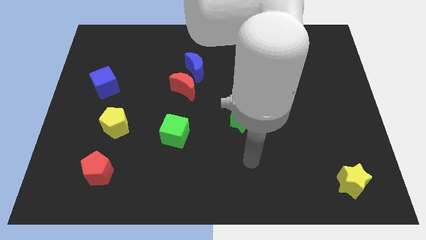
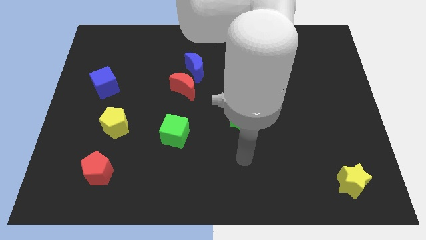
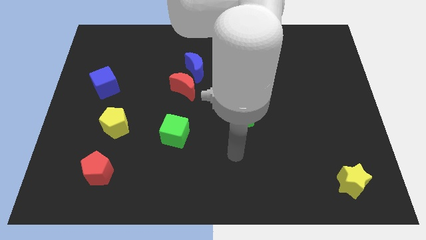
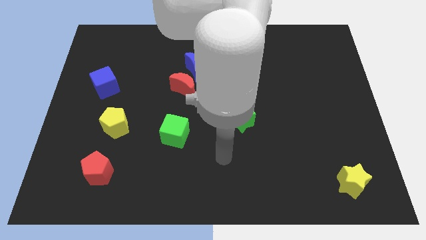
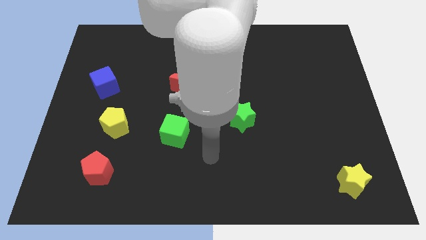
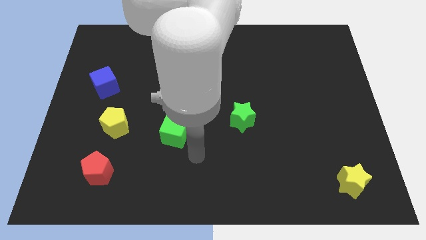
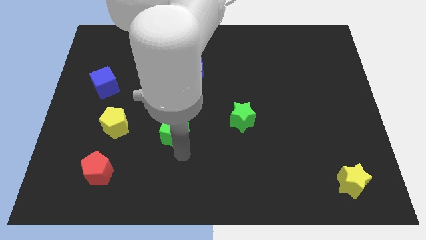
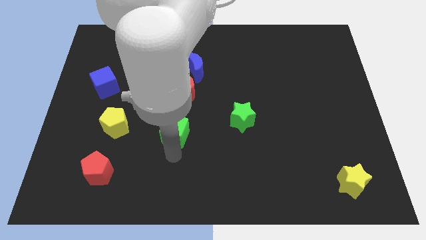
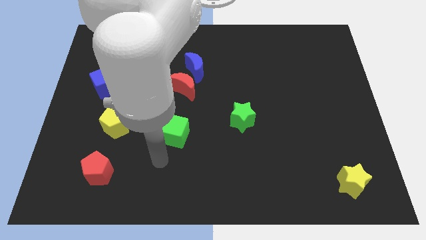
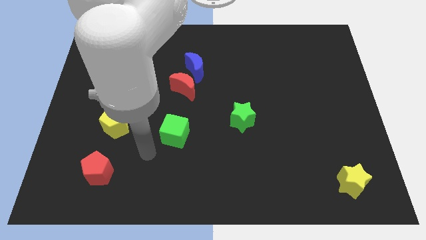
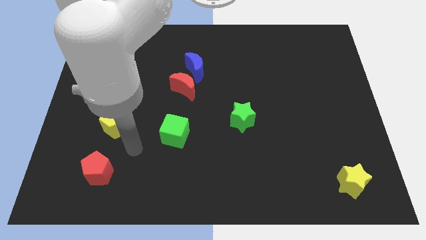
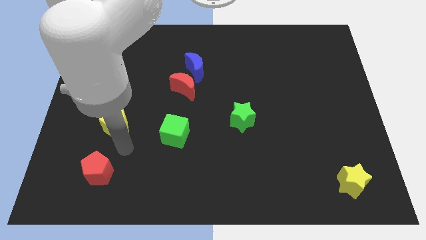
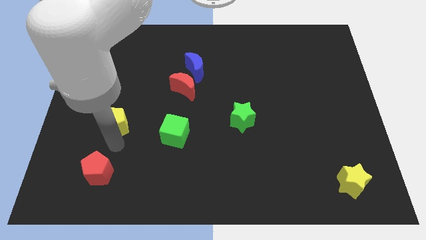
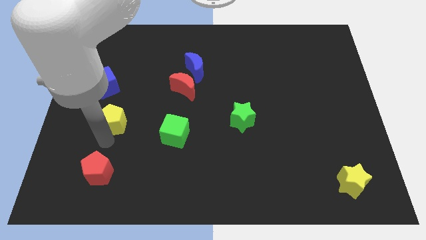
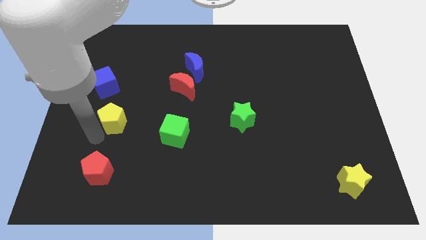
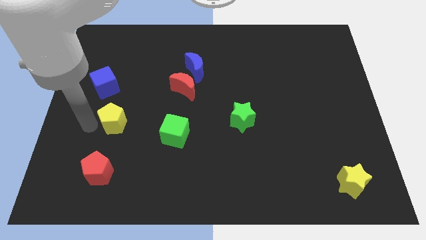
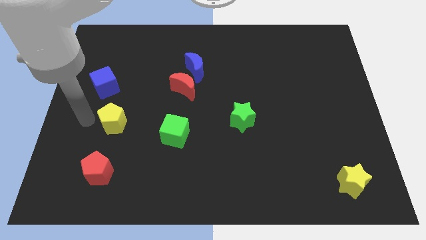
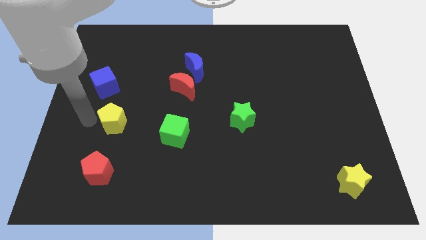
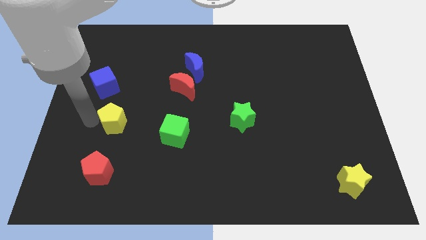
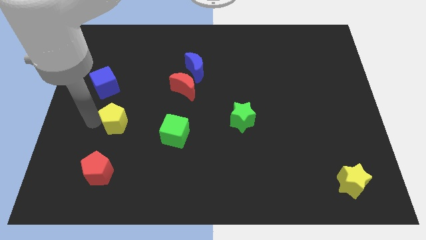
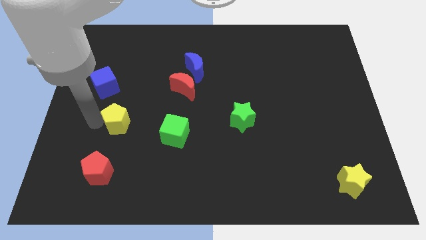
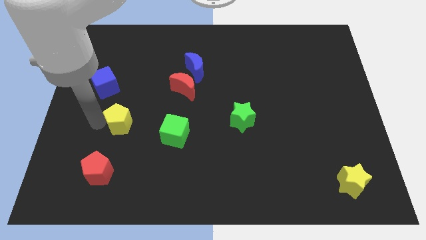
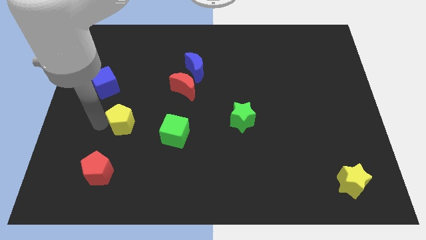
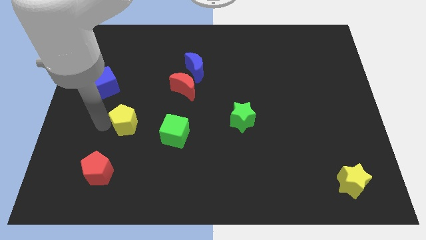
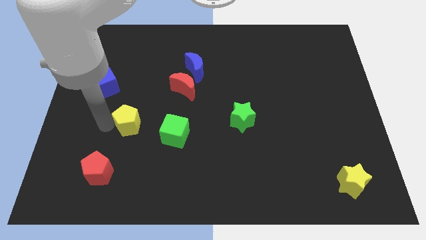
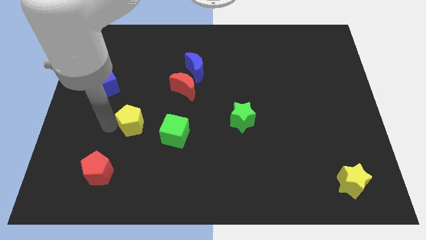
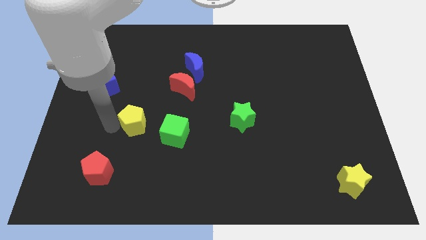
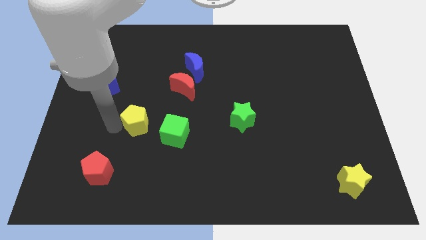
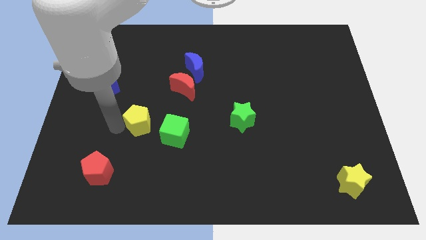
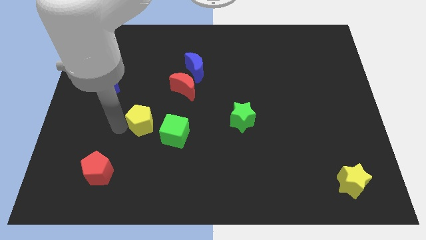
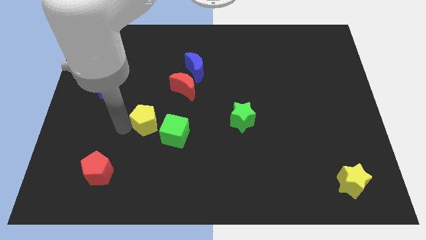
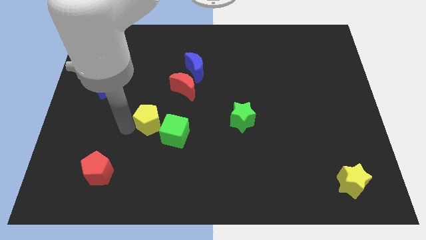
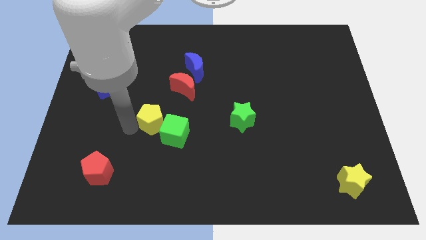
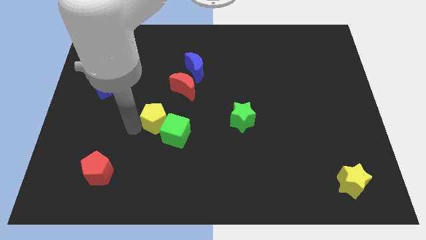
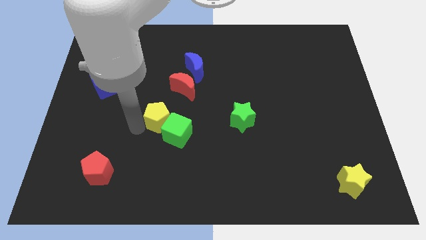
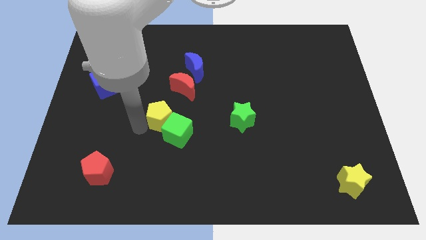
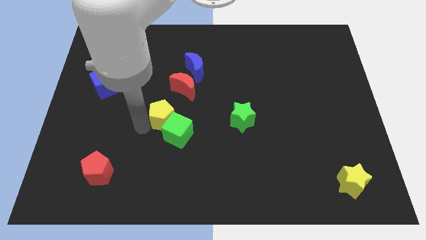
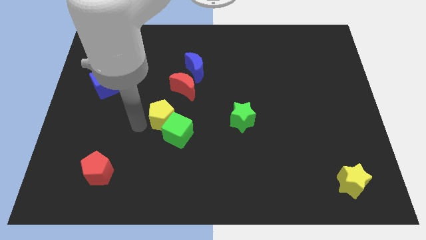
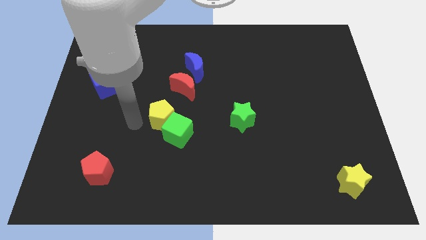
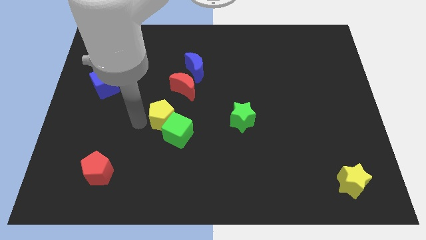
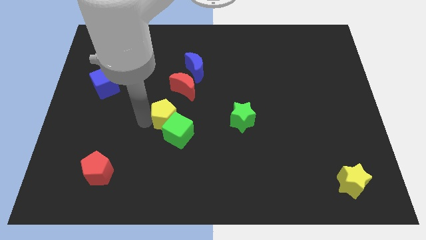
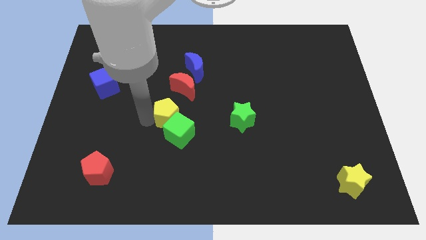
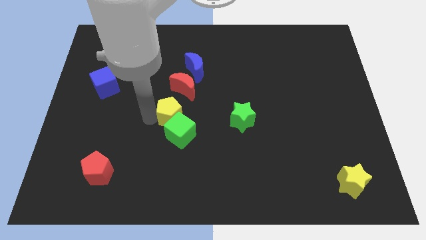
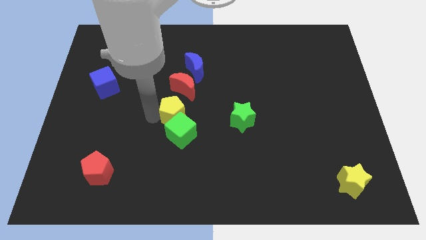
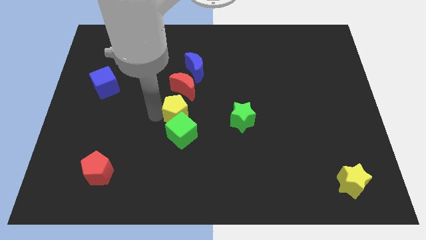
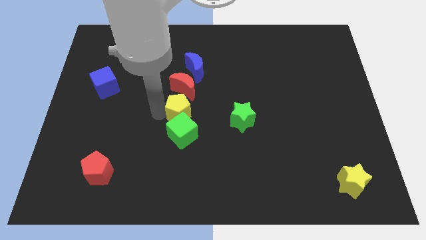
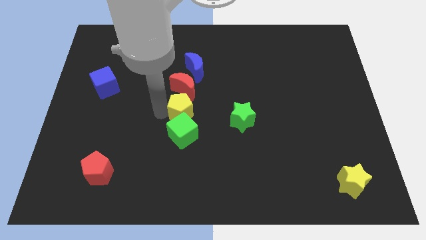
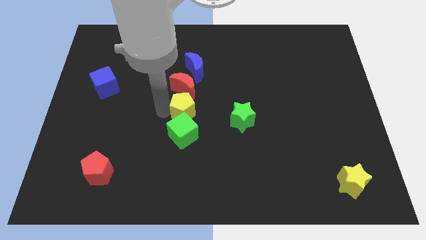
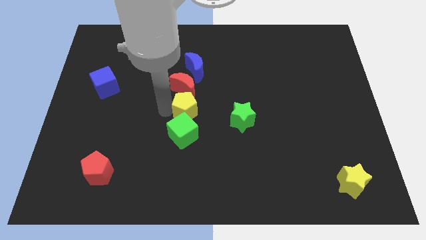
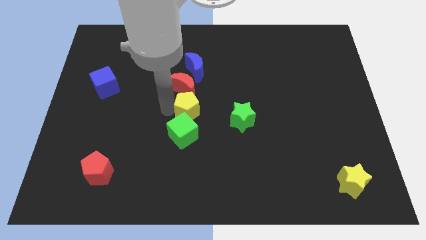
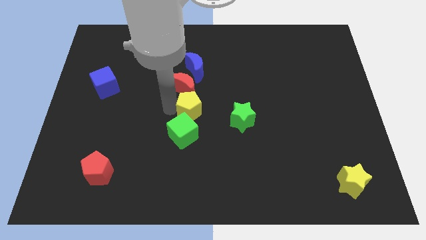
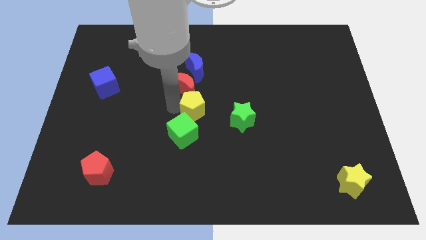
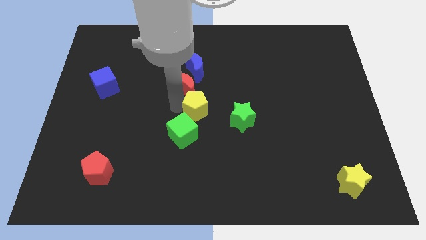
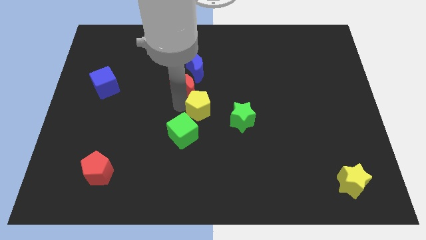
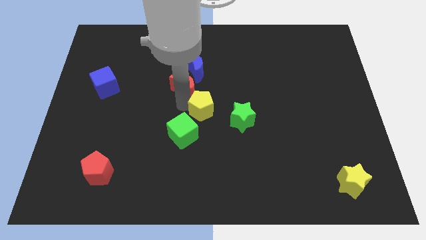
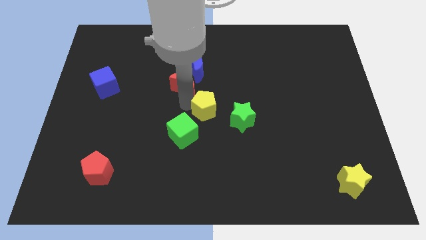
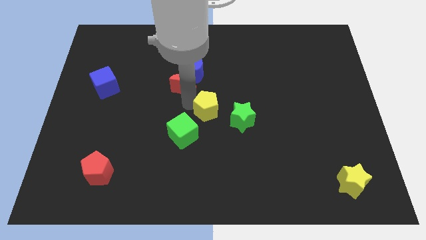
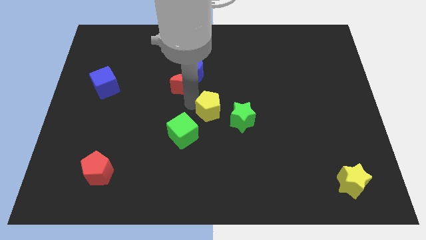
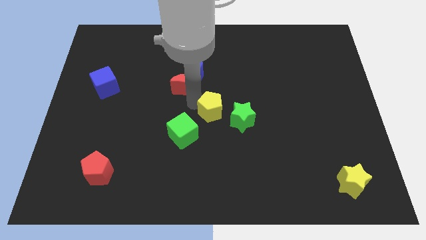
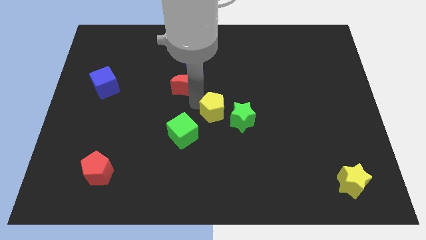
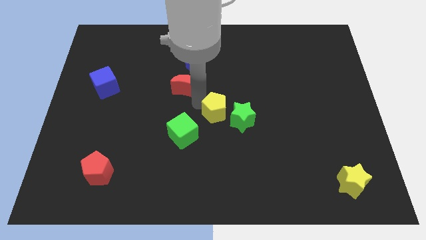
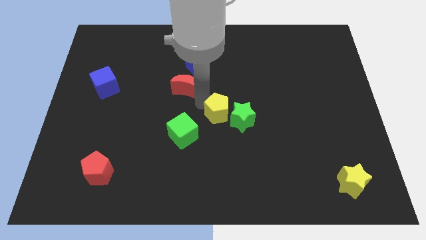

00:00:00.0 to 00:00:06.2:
move the yellow pentagon next to the green star

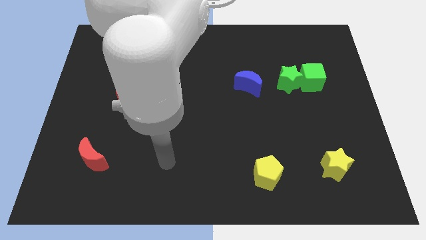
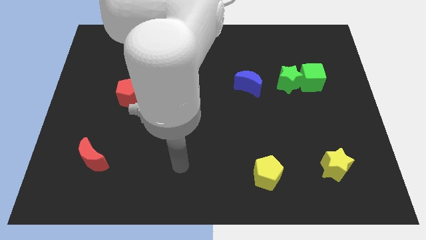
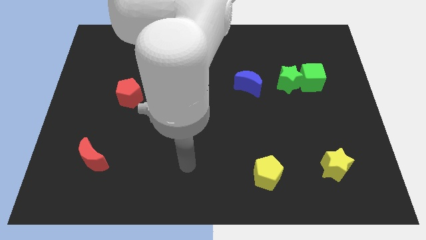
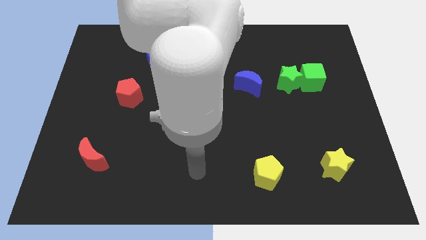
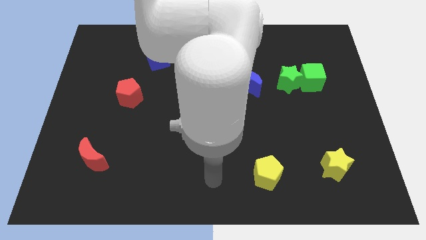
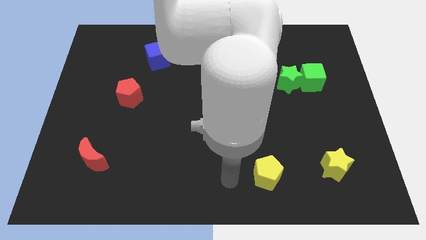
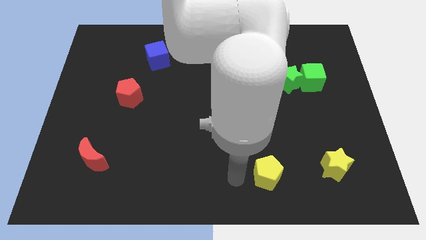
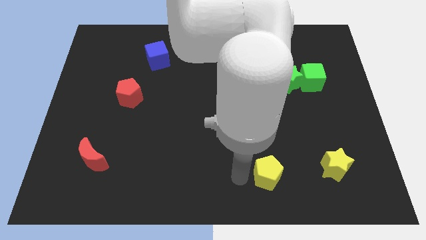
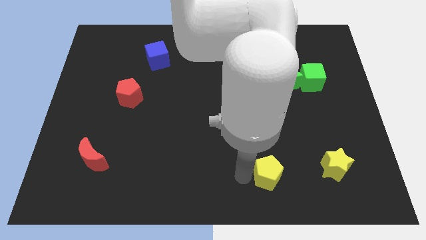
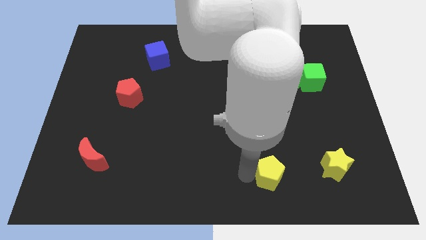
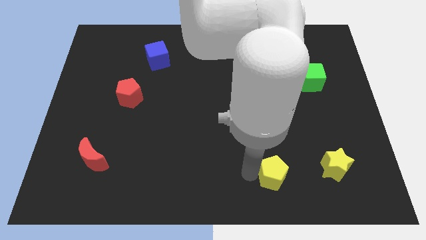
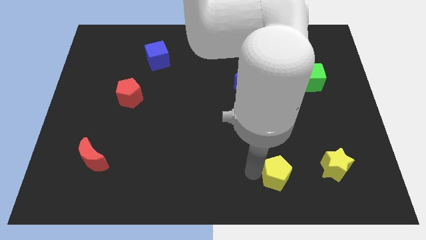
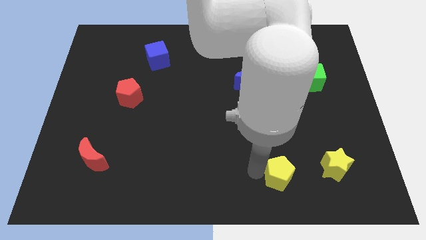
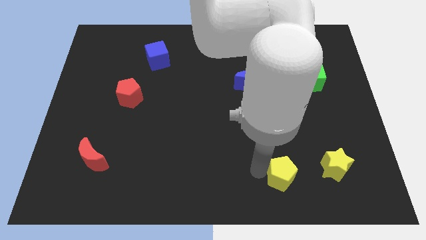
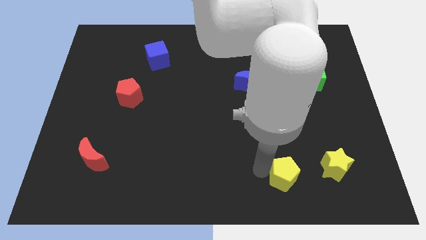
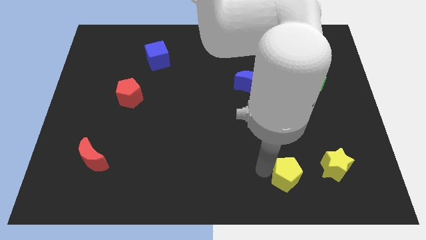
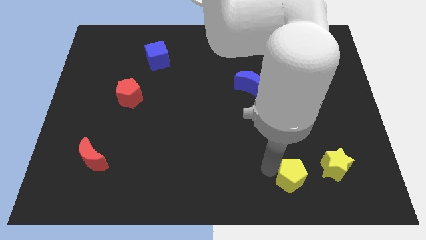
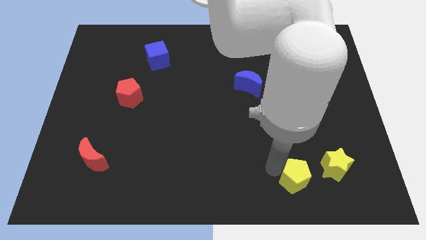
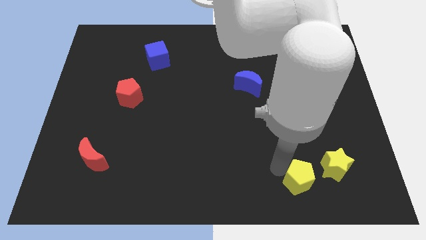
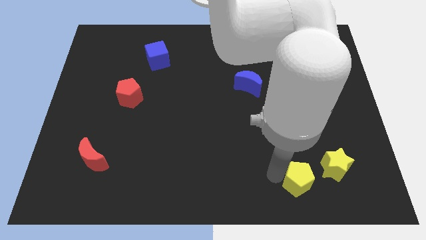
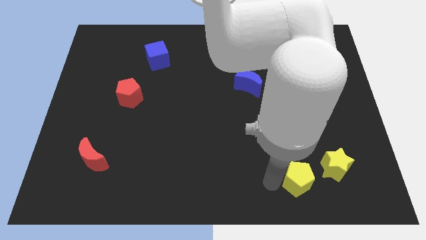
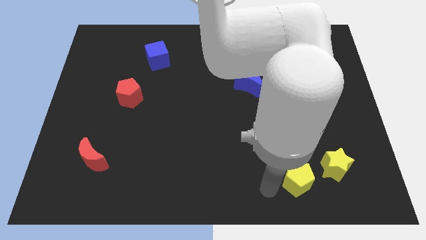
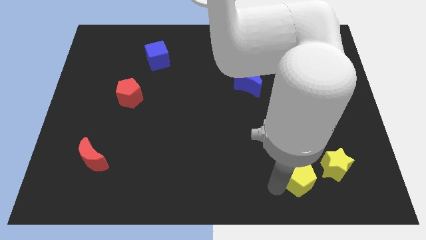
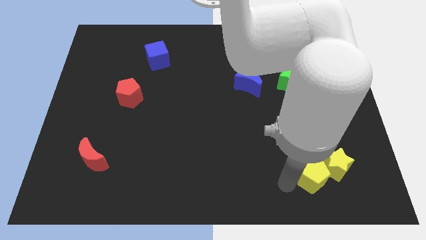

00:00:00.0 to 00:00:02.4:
put the yellow pentagon close to the yellow star
